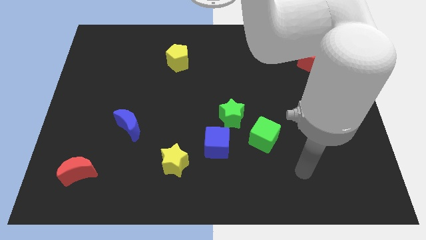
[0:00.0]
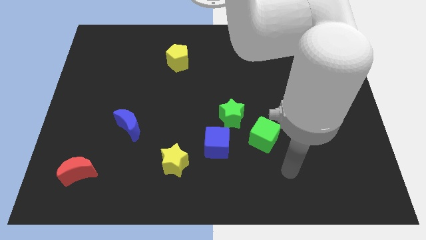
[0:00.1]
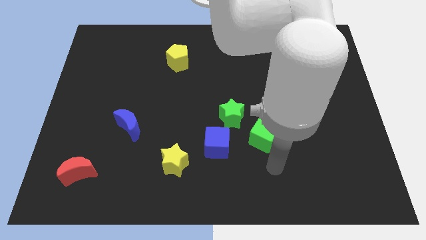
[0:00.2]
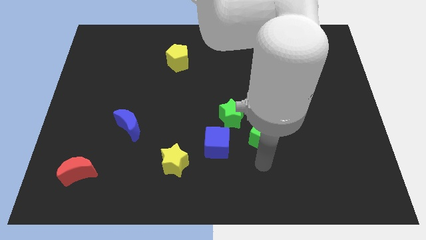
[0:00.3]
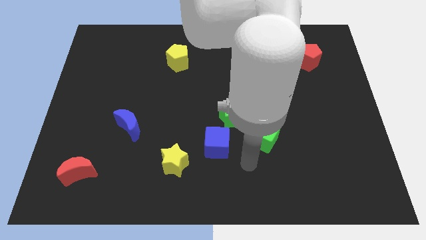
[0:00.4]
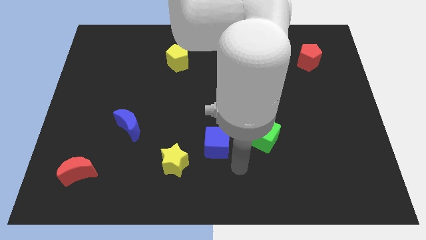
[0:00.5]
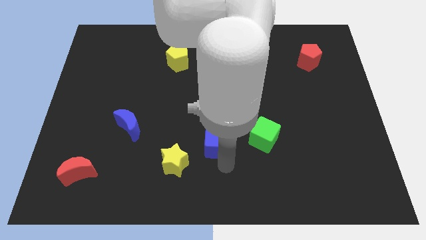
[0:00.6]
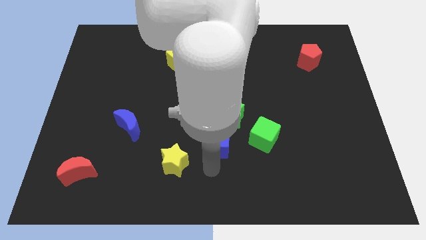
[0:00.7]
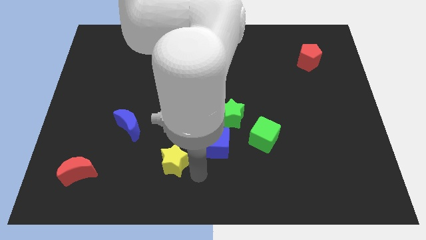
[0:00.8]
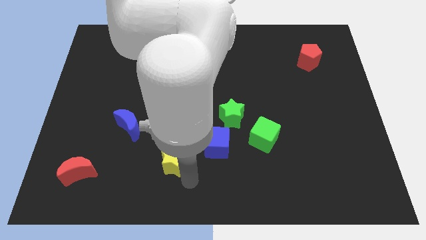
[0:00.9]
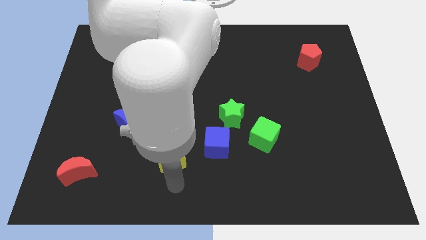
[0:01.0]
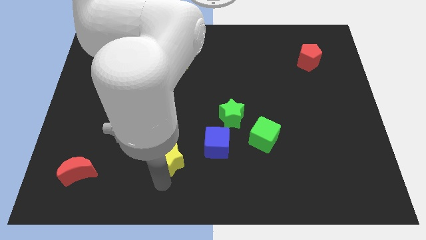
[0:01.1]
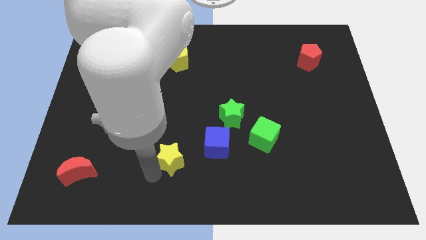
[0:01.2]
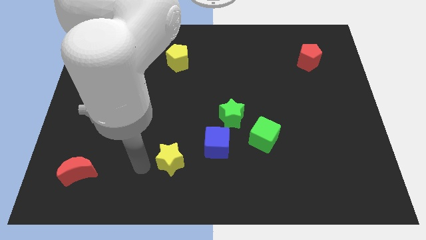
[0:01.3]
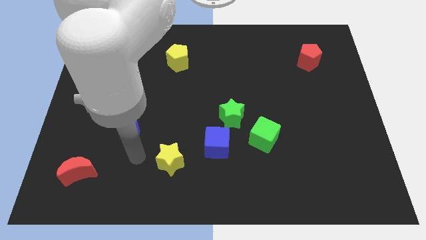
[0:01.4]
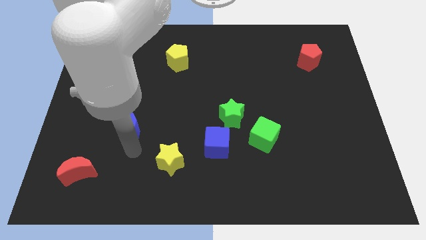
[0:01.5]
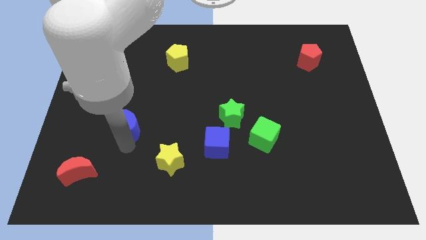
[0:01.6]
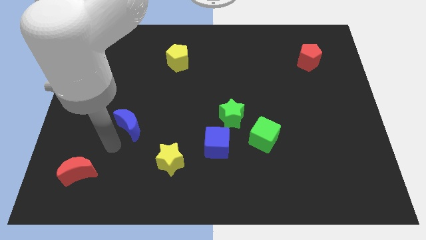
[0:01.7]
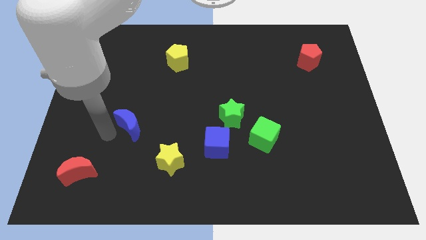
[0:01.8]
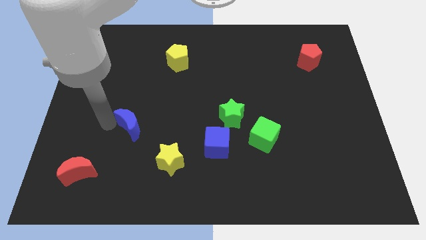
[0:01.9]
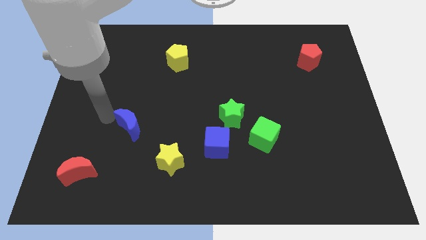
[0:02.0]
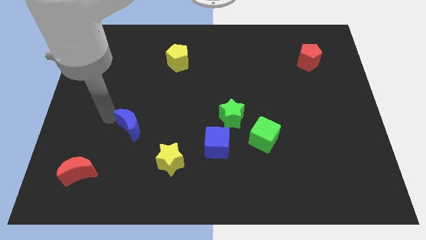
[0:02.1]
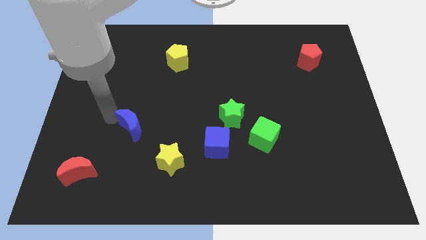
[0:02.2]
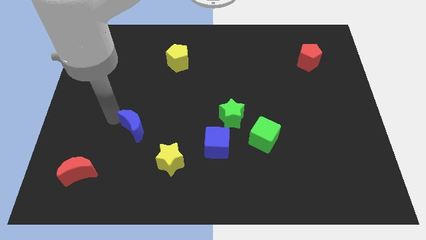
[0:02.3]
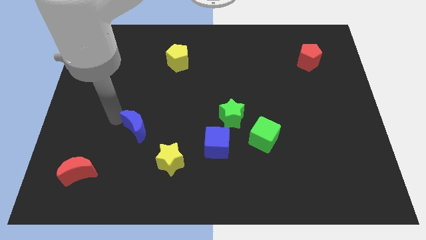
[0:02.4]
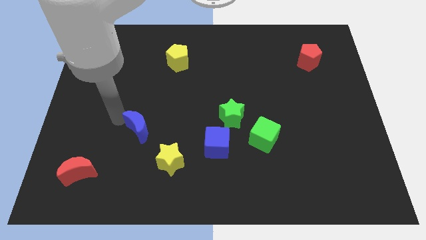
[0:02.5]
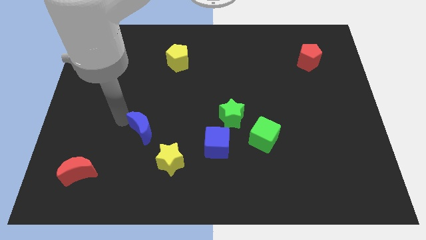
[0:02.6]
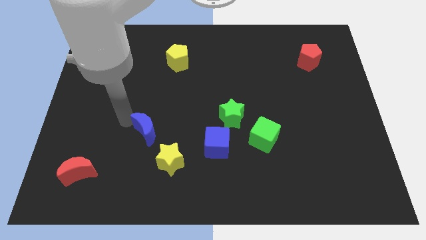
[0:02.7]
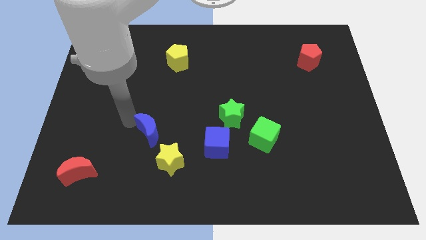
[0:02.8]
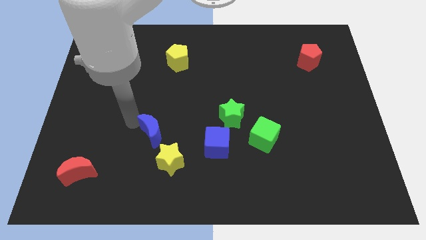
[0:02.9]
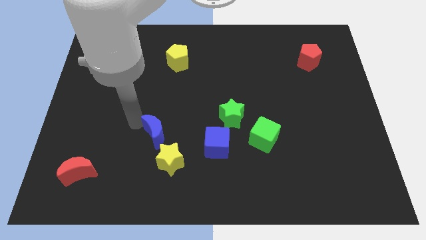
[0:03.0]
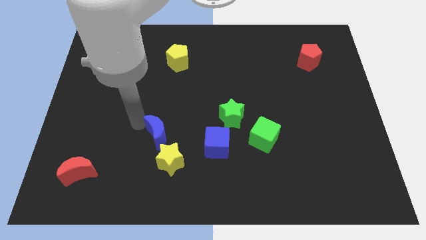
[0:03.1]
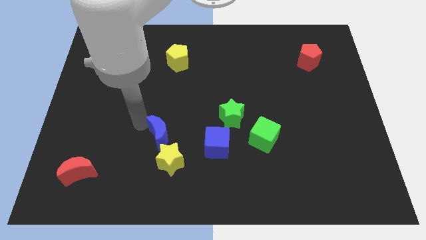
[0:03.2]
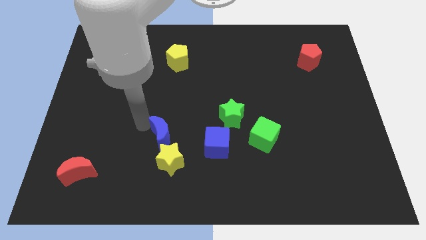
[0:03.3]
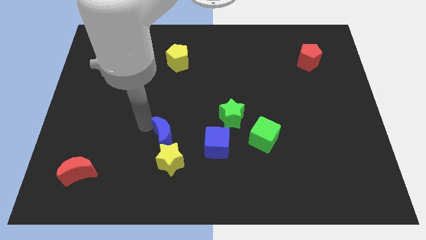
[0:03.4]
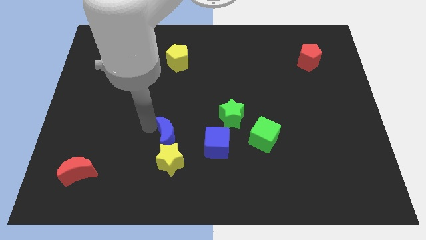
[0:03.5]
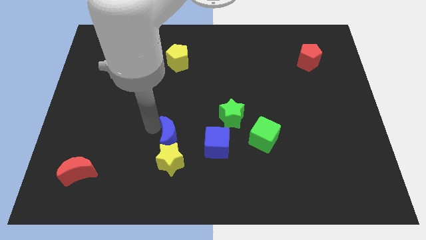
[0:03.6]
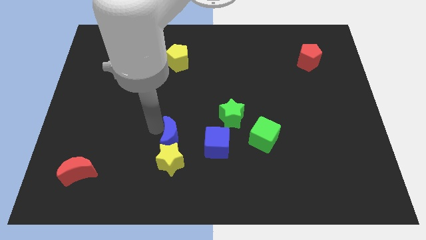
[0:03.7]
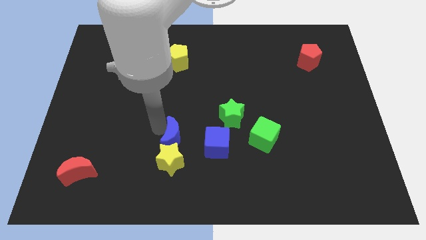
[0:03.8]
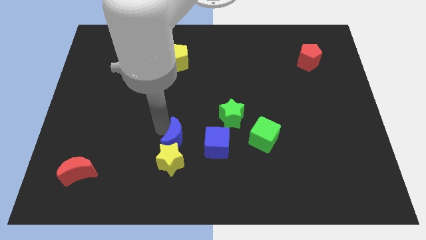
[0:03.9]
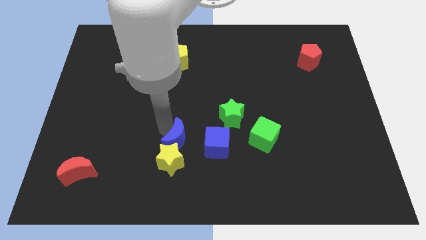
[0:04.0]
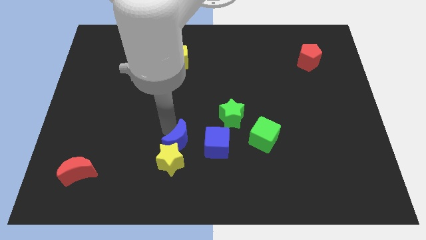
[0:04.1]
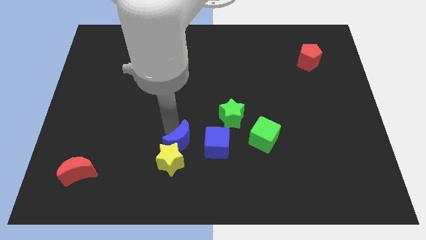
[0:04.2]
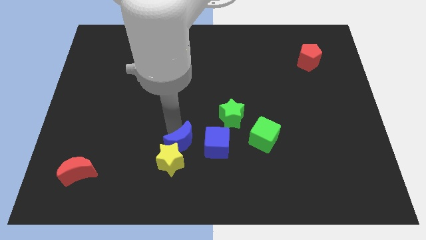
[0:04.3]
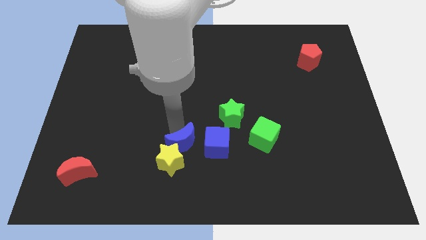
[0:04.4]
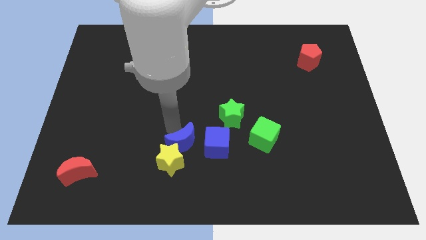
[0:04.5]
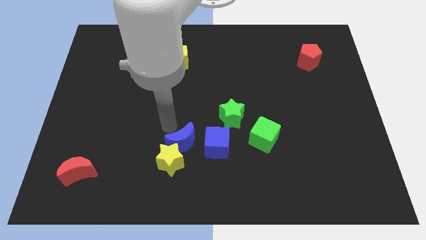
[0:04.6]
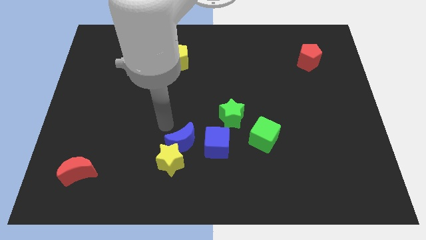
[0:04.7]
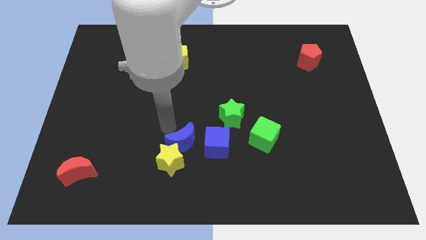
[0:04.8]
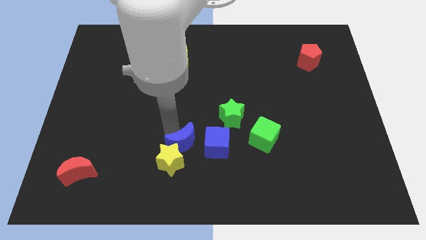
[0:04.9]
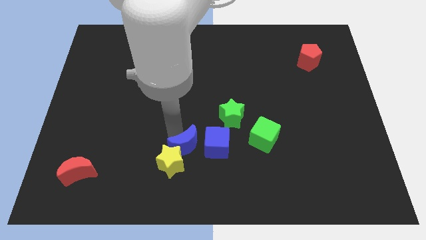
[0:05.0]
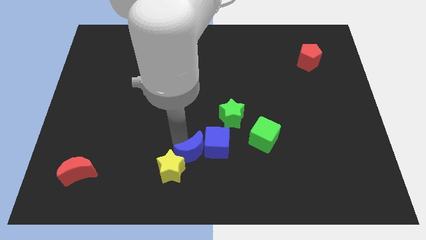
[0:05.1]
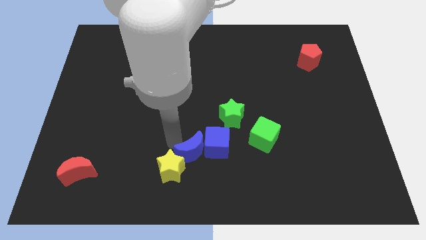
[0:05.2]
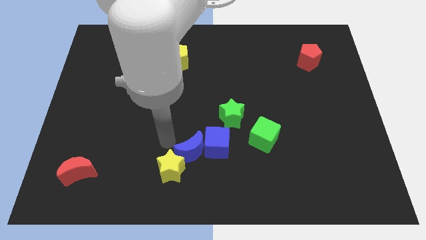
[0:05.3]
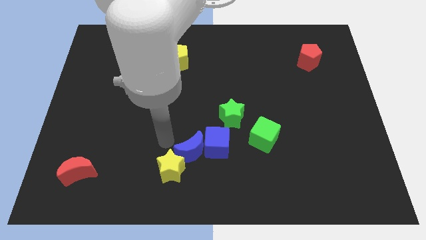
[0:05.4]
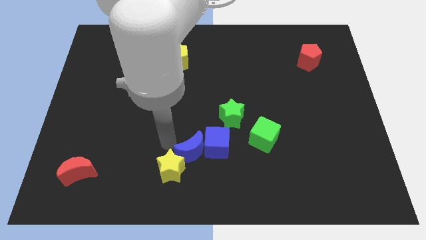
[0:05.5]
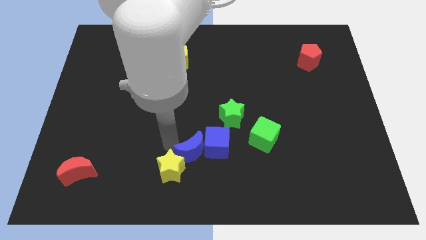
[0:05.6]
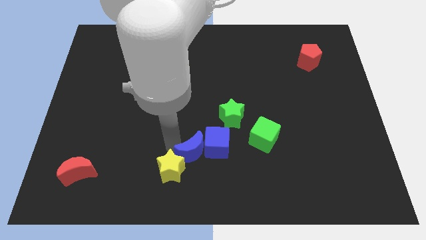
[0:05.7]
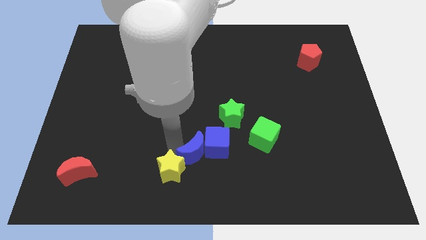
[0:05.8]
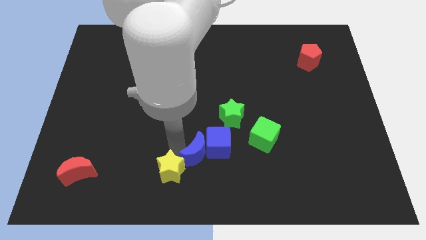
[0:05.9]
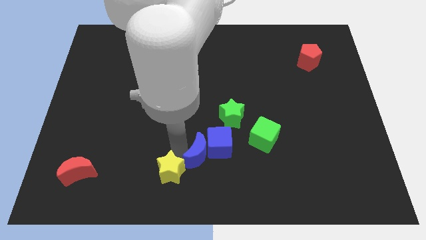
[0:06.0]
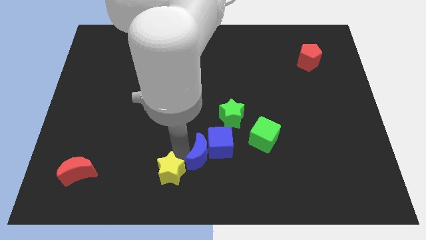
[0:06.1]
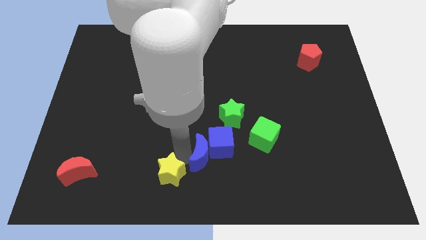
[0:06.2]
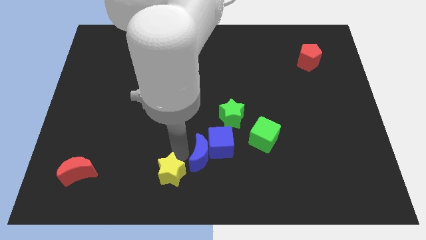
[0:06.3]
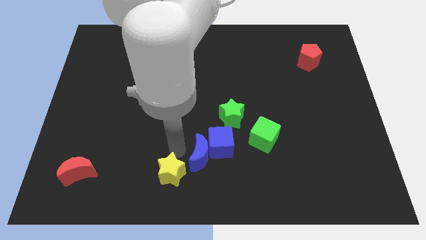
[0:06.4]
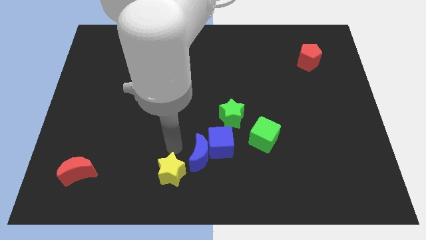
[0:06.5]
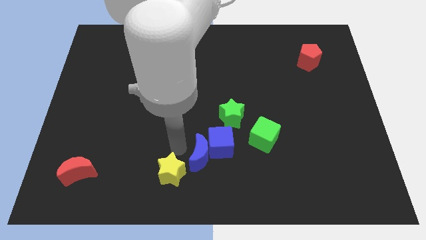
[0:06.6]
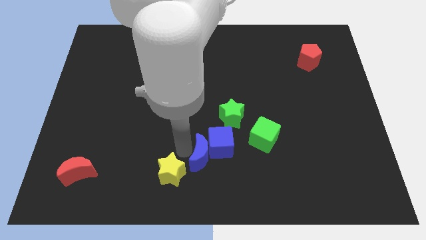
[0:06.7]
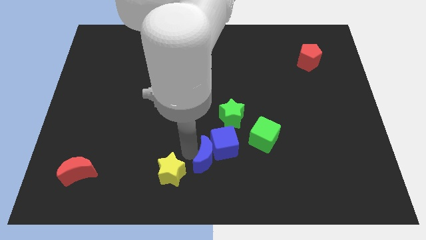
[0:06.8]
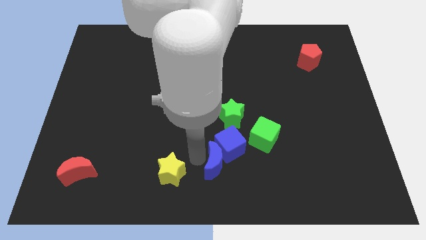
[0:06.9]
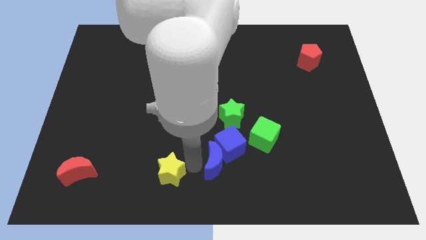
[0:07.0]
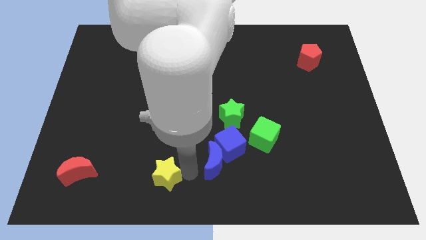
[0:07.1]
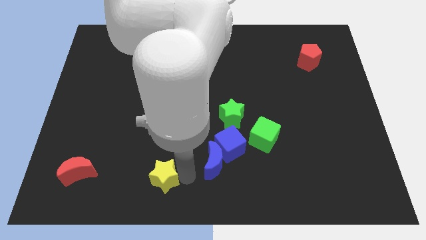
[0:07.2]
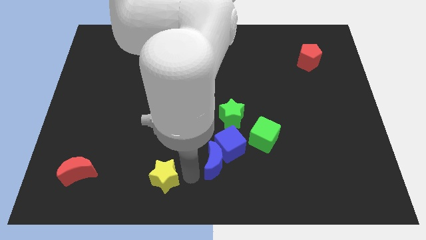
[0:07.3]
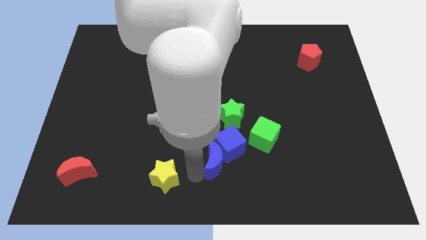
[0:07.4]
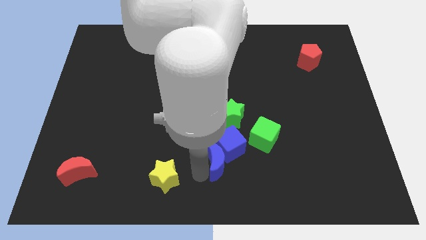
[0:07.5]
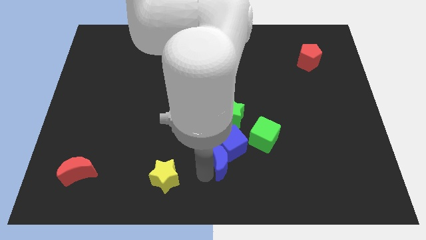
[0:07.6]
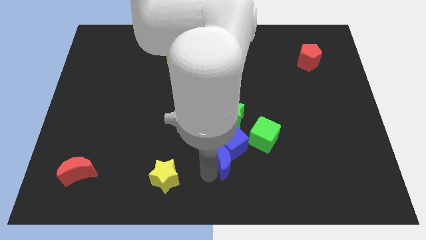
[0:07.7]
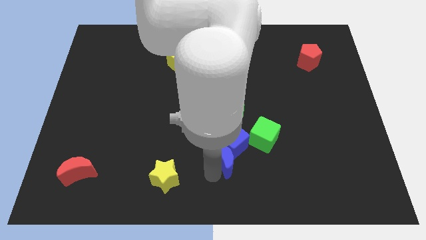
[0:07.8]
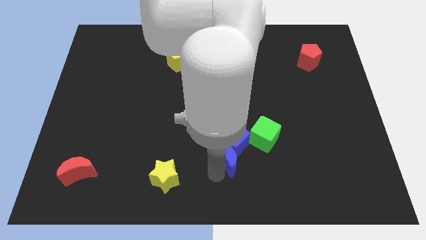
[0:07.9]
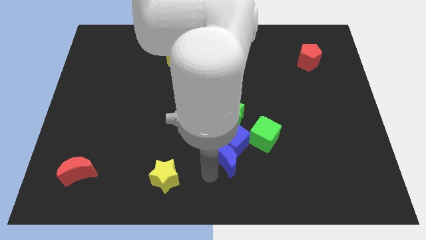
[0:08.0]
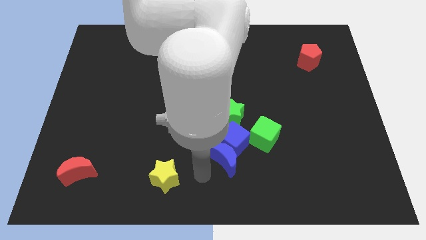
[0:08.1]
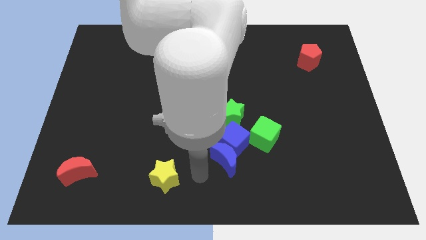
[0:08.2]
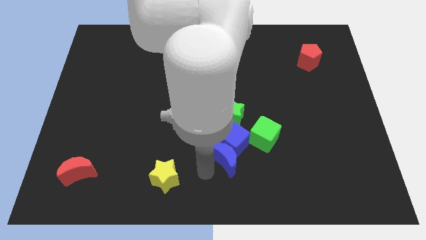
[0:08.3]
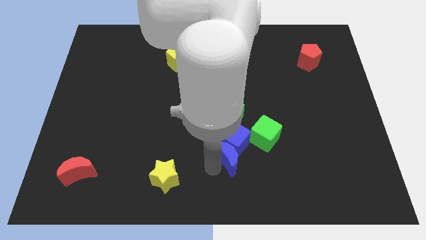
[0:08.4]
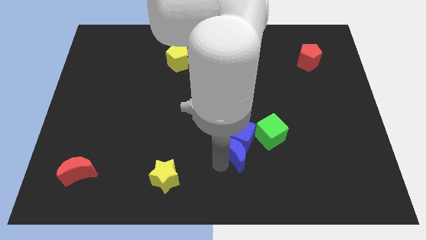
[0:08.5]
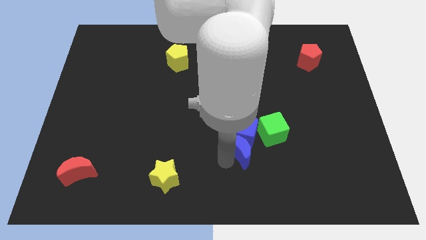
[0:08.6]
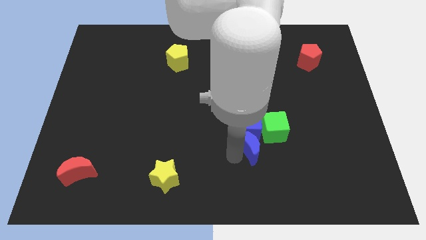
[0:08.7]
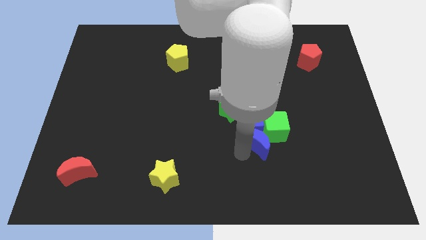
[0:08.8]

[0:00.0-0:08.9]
move the blue moon to the green cube
